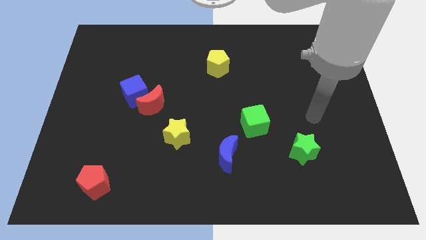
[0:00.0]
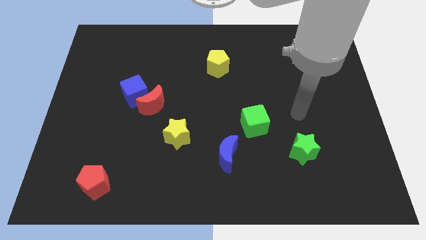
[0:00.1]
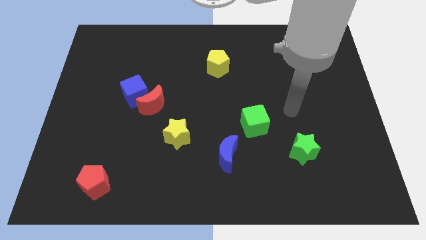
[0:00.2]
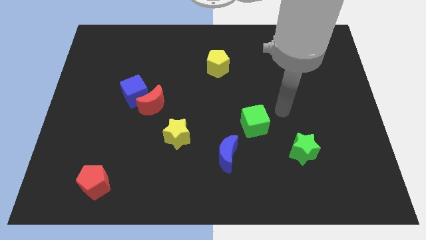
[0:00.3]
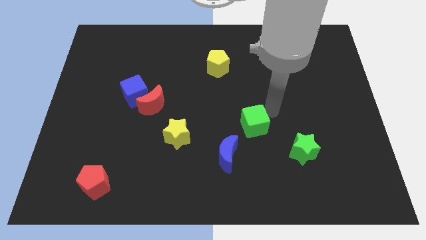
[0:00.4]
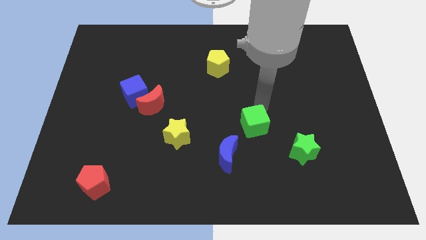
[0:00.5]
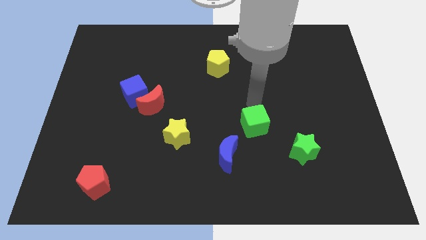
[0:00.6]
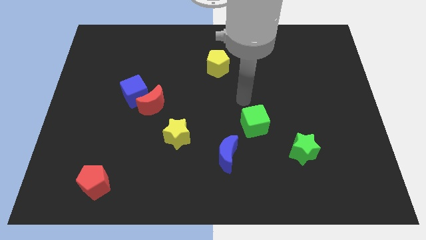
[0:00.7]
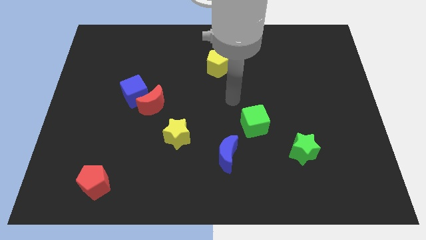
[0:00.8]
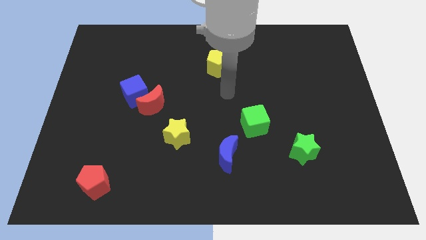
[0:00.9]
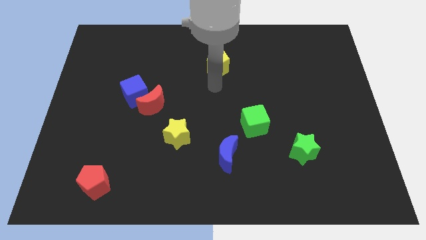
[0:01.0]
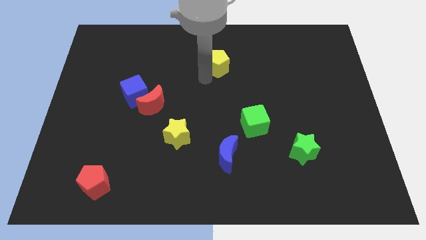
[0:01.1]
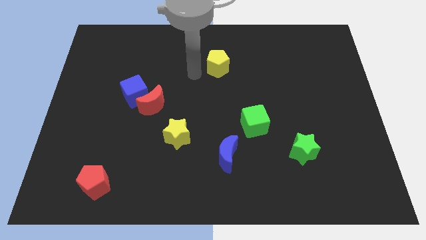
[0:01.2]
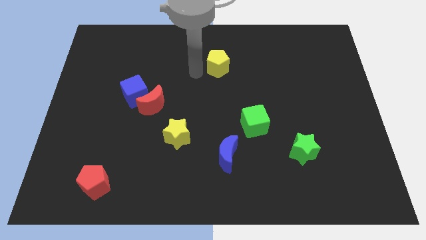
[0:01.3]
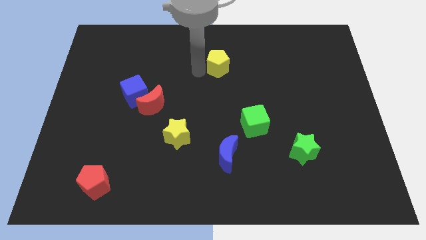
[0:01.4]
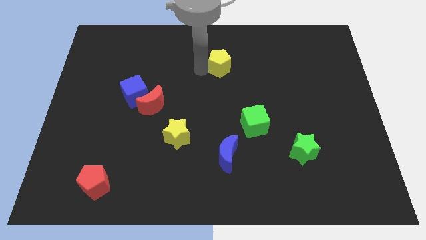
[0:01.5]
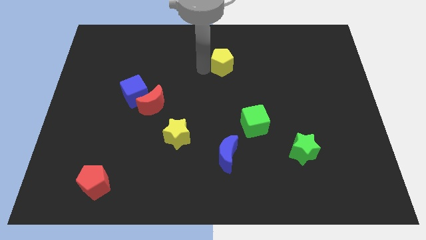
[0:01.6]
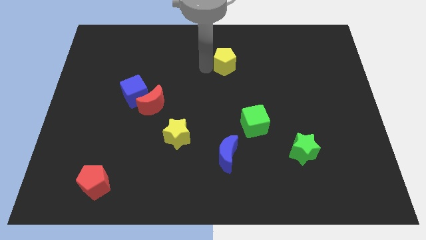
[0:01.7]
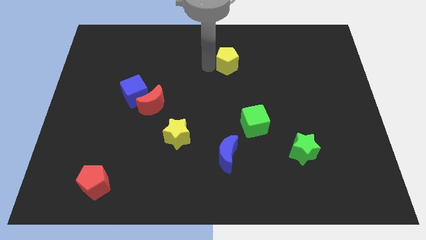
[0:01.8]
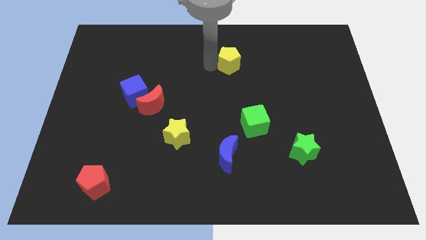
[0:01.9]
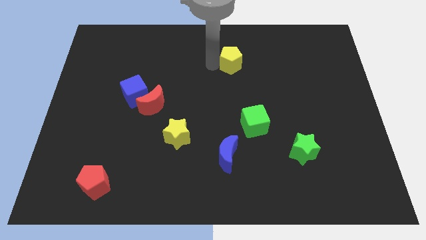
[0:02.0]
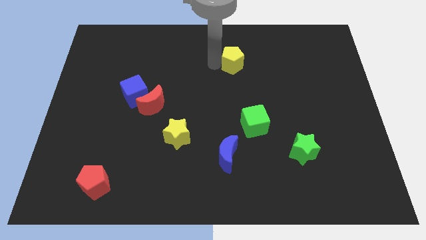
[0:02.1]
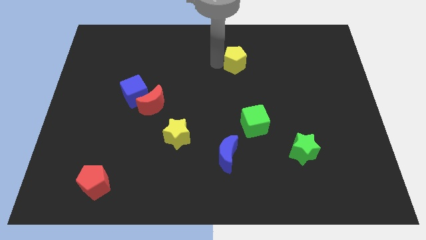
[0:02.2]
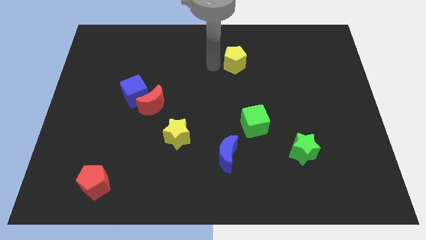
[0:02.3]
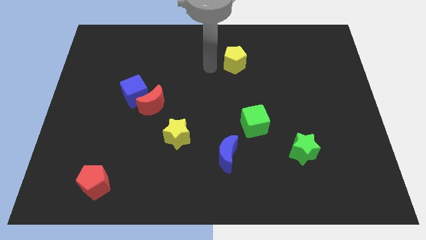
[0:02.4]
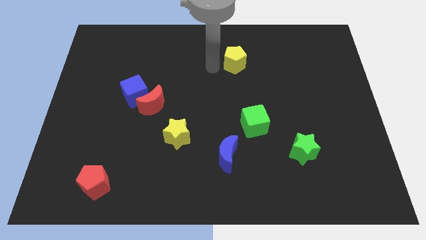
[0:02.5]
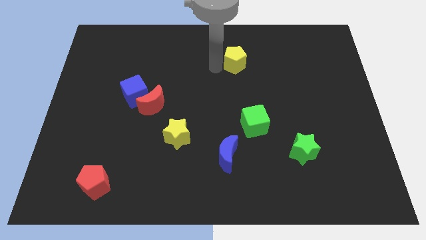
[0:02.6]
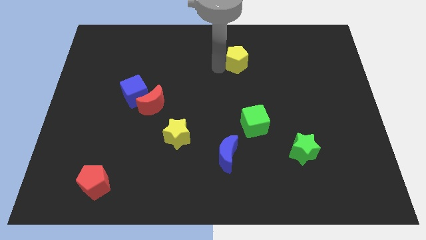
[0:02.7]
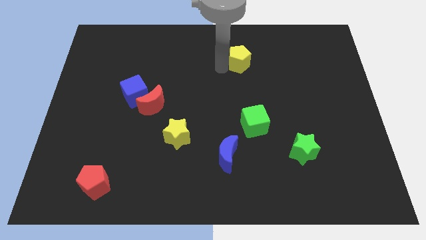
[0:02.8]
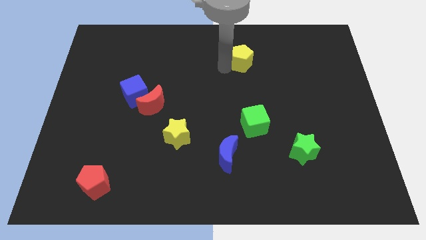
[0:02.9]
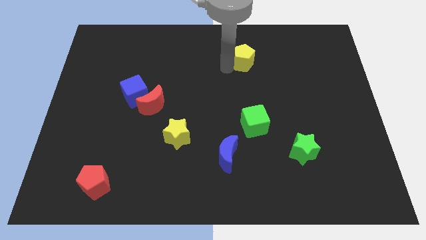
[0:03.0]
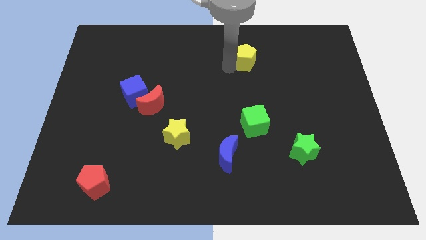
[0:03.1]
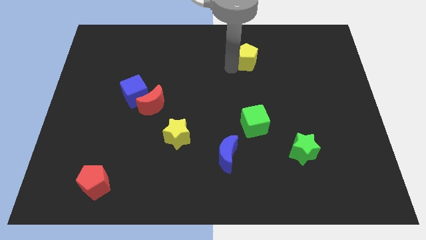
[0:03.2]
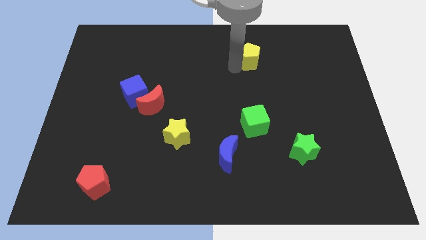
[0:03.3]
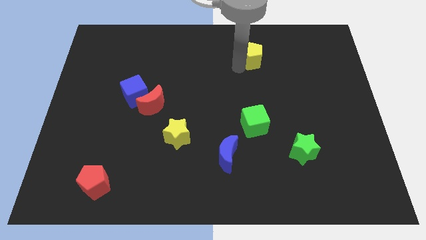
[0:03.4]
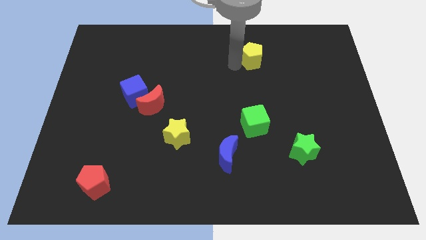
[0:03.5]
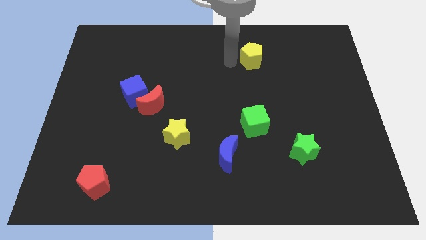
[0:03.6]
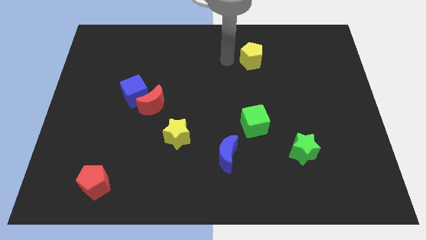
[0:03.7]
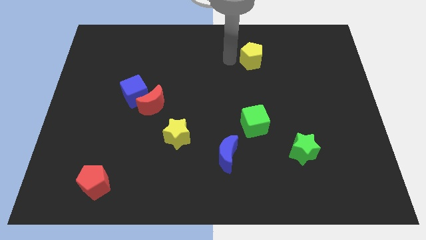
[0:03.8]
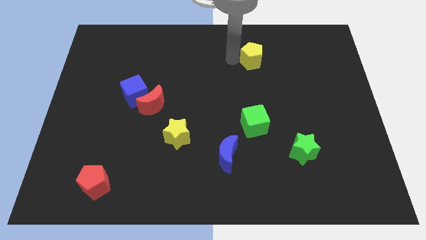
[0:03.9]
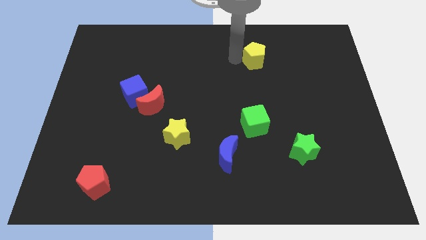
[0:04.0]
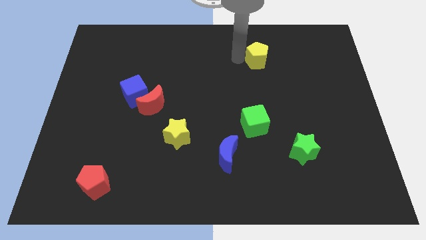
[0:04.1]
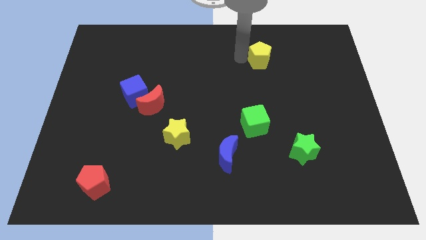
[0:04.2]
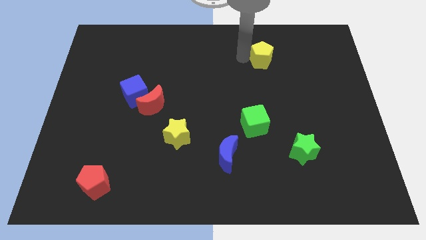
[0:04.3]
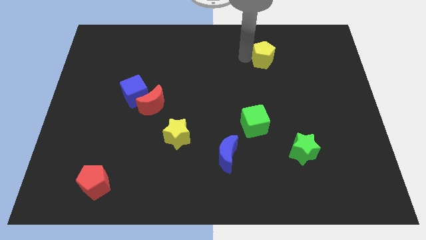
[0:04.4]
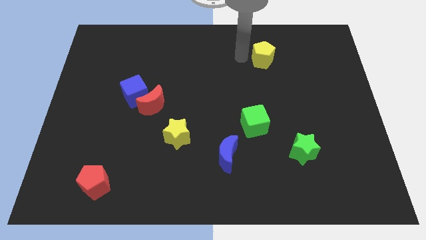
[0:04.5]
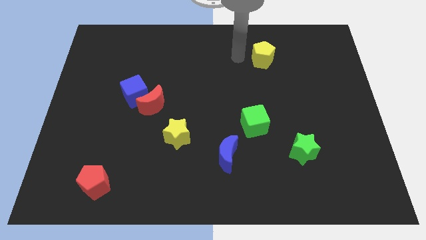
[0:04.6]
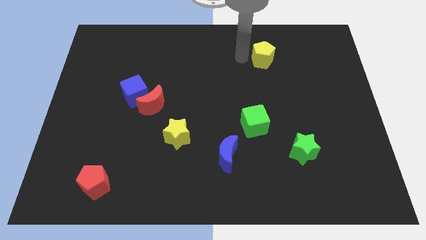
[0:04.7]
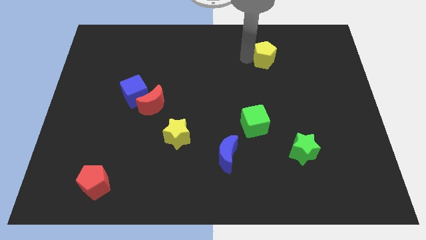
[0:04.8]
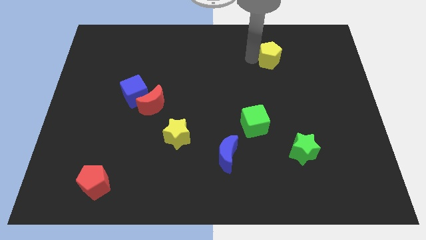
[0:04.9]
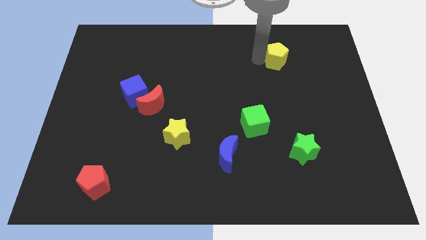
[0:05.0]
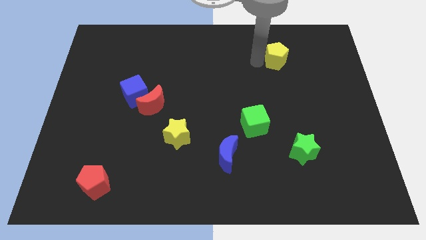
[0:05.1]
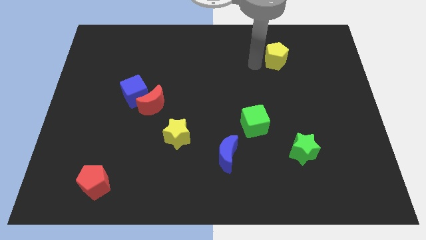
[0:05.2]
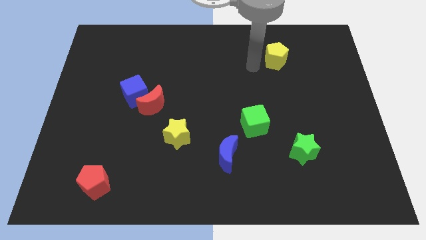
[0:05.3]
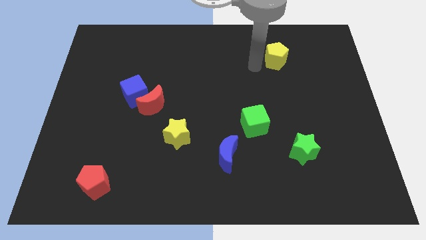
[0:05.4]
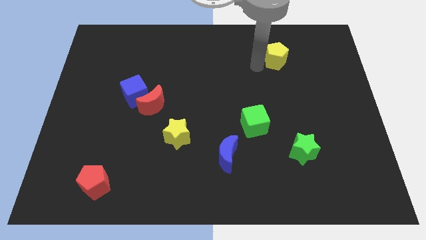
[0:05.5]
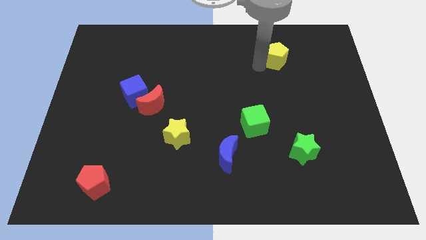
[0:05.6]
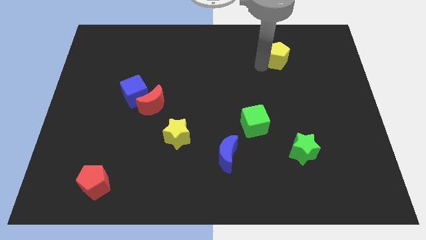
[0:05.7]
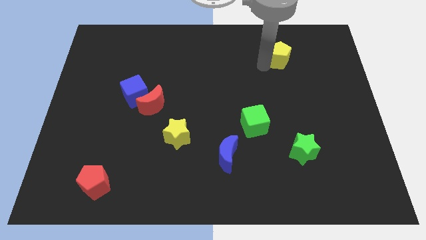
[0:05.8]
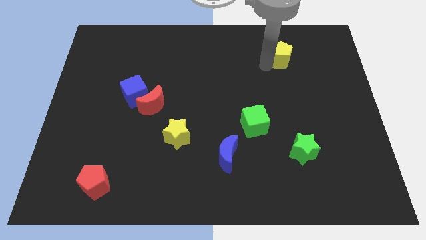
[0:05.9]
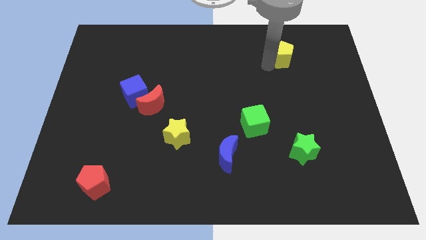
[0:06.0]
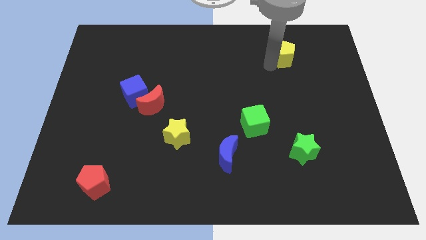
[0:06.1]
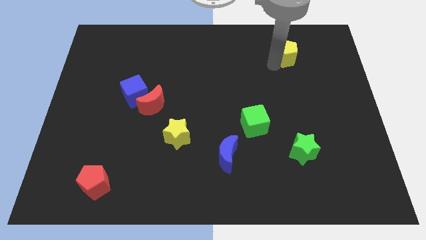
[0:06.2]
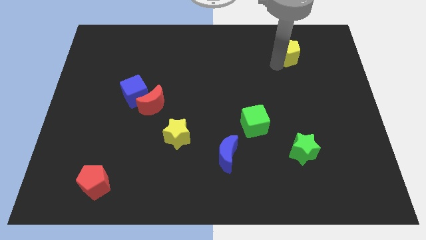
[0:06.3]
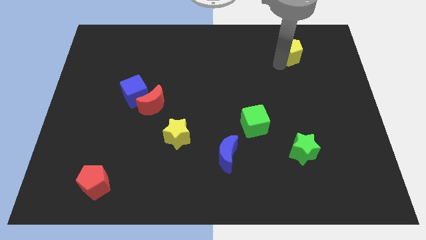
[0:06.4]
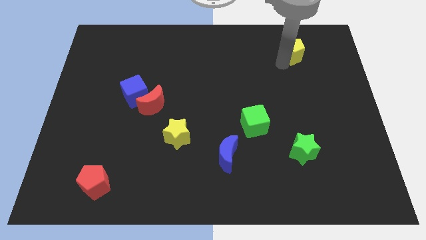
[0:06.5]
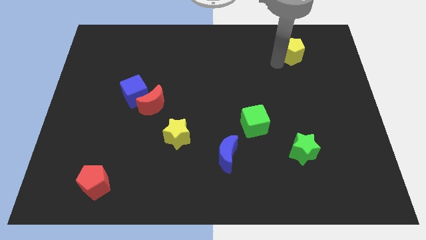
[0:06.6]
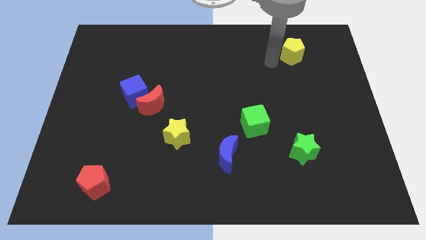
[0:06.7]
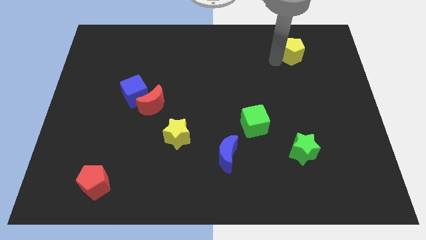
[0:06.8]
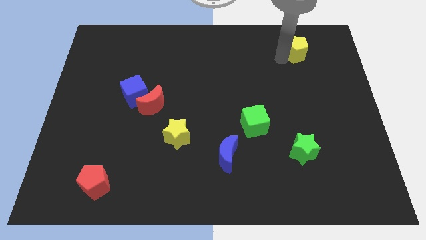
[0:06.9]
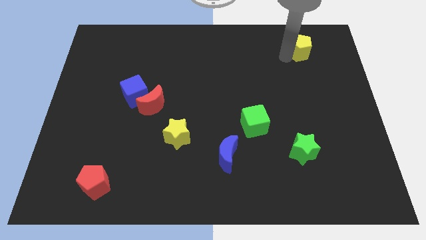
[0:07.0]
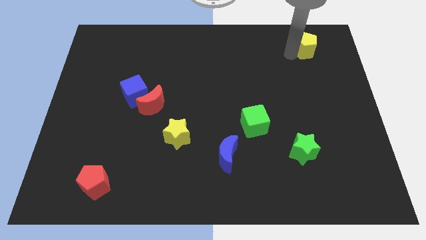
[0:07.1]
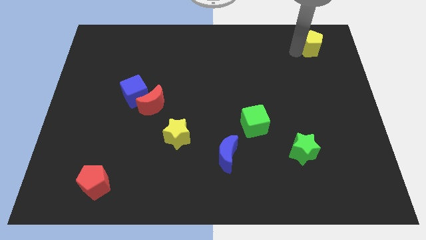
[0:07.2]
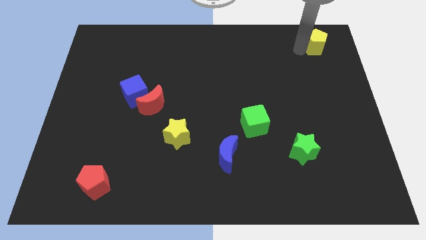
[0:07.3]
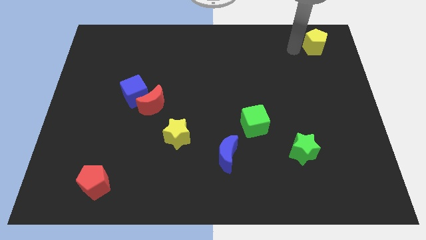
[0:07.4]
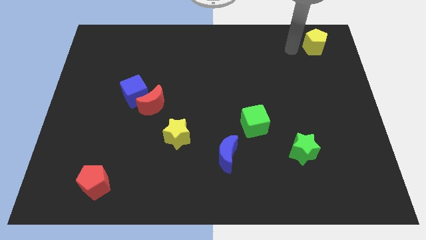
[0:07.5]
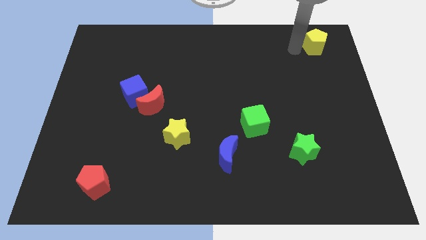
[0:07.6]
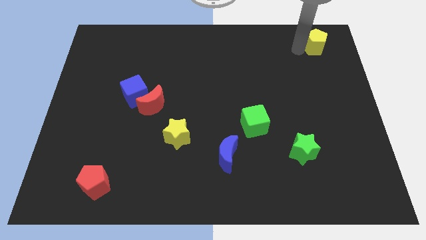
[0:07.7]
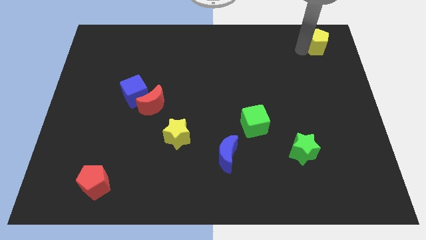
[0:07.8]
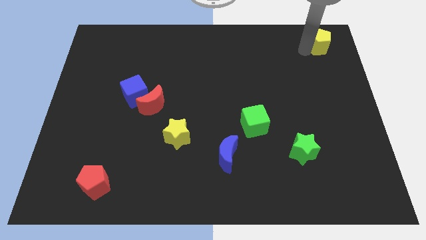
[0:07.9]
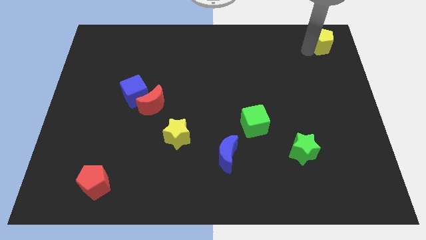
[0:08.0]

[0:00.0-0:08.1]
put the yellow pentagon to the top right of the board
